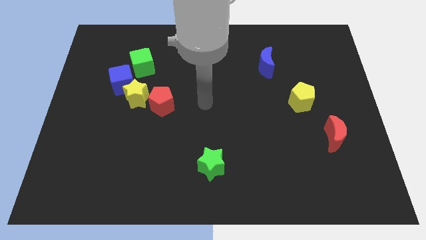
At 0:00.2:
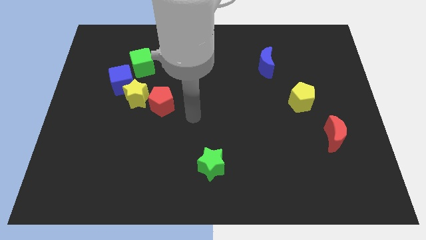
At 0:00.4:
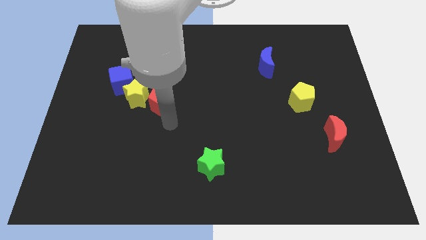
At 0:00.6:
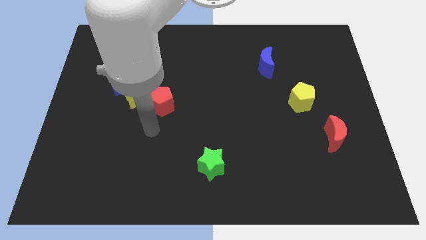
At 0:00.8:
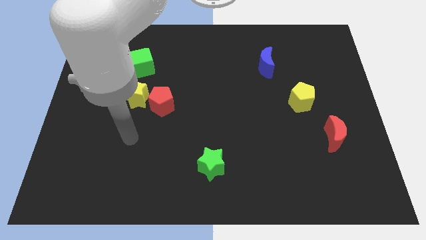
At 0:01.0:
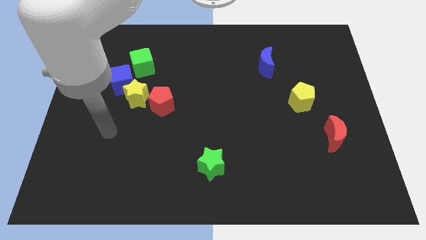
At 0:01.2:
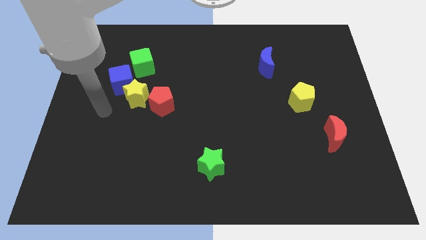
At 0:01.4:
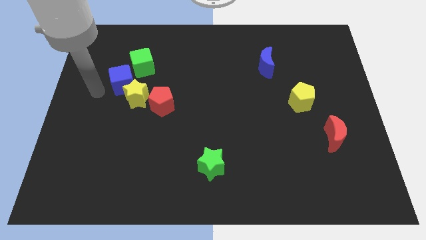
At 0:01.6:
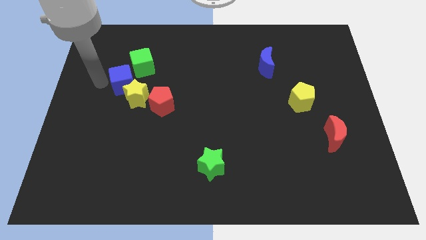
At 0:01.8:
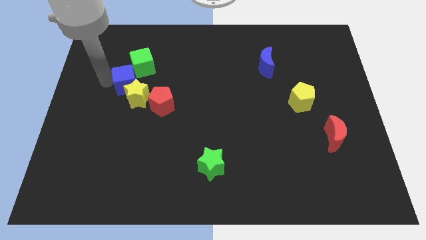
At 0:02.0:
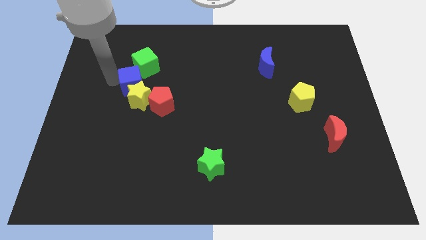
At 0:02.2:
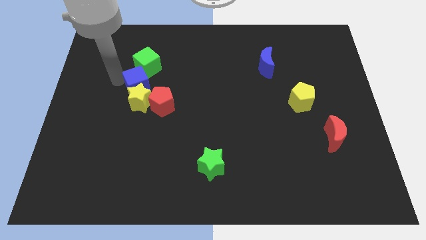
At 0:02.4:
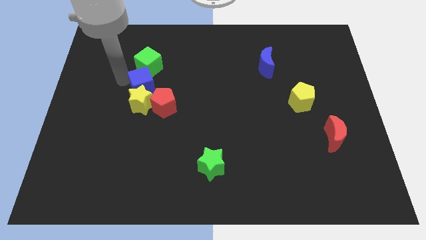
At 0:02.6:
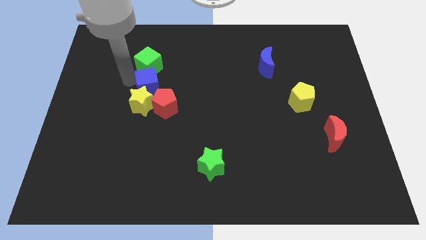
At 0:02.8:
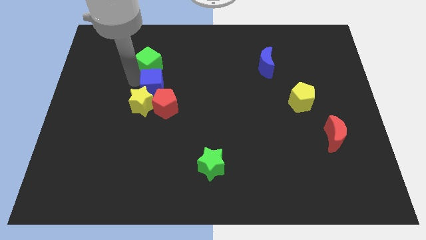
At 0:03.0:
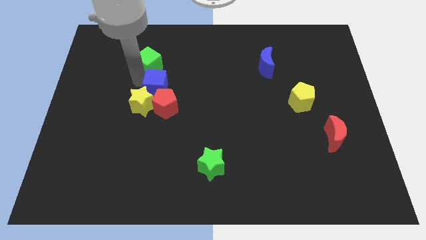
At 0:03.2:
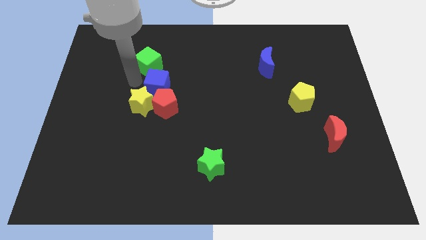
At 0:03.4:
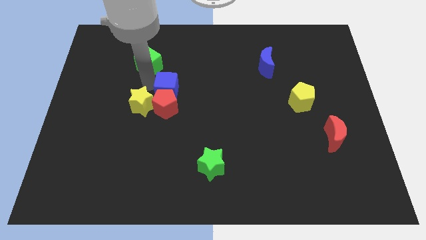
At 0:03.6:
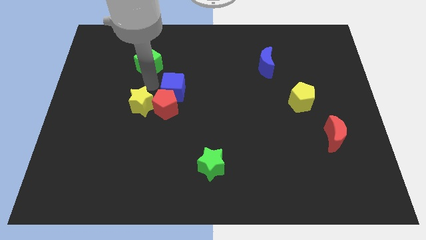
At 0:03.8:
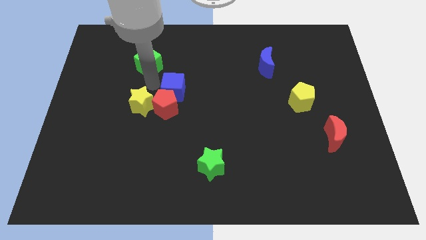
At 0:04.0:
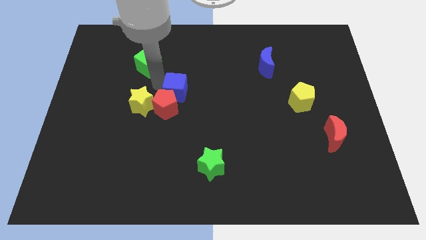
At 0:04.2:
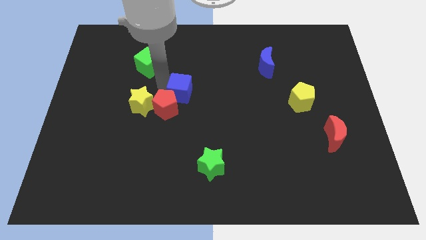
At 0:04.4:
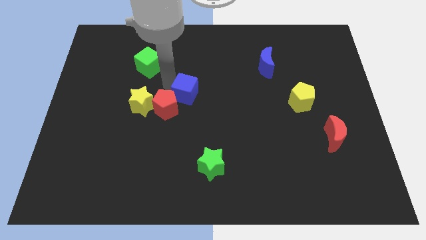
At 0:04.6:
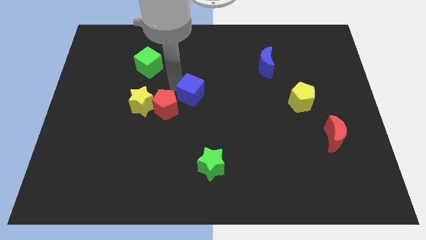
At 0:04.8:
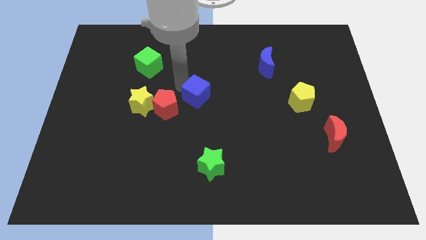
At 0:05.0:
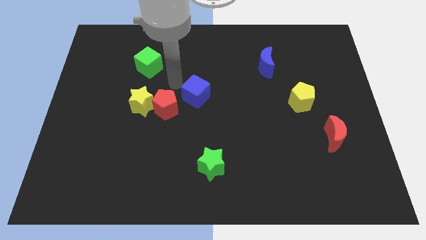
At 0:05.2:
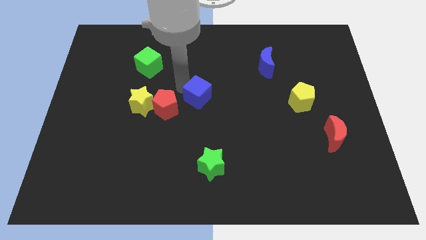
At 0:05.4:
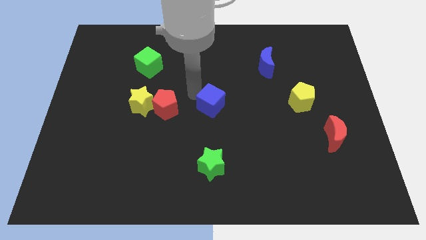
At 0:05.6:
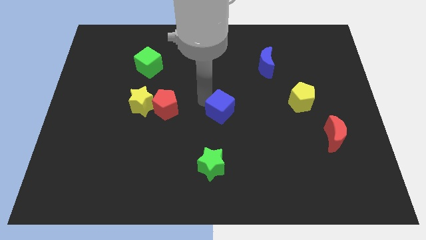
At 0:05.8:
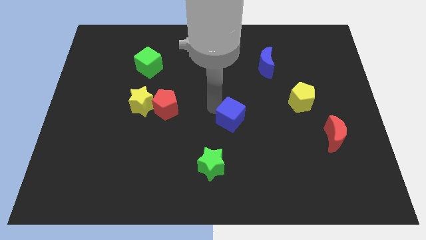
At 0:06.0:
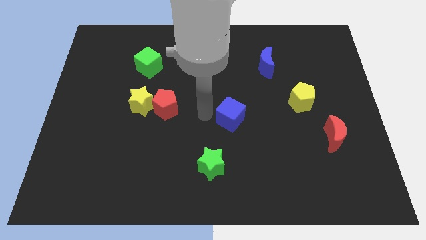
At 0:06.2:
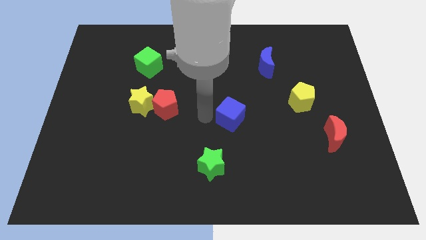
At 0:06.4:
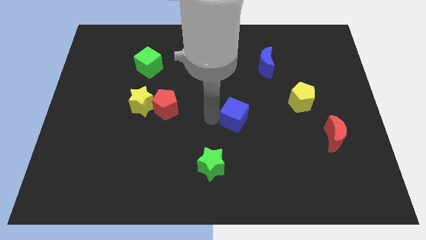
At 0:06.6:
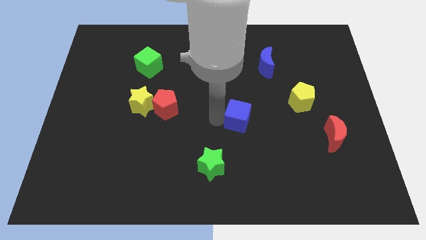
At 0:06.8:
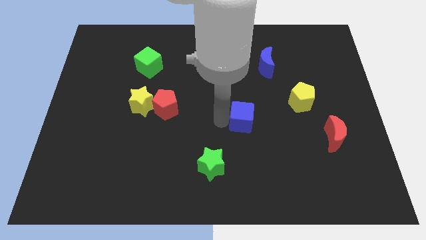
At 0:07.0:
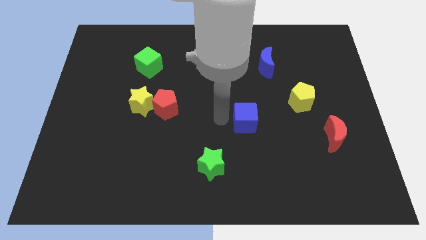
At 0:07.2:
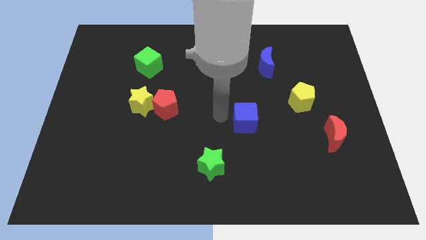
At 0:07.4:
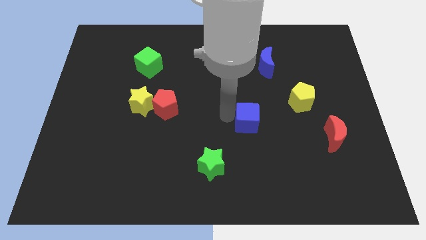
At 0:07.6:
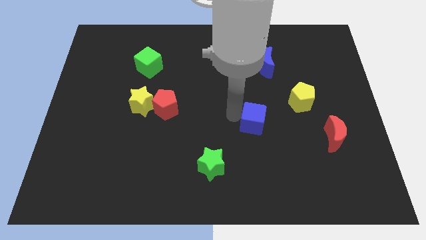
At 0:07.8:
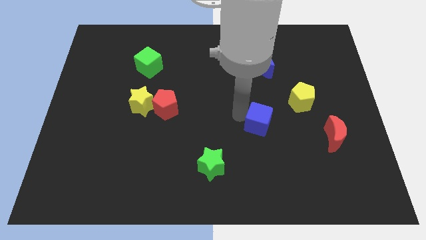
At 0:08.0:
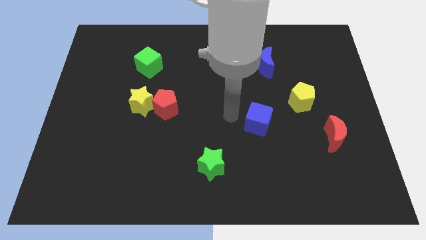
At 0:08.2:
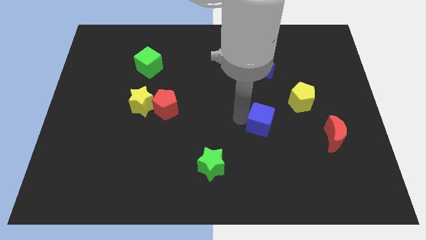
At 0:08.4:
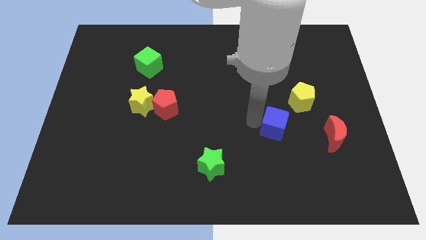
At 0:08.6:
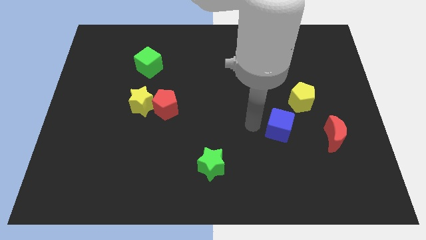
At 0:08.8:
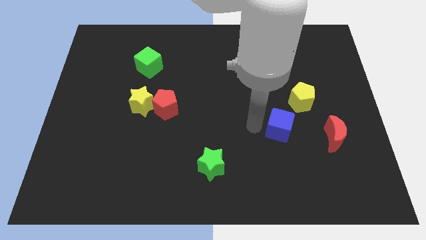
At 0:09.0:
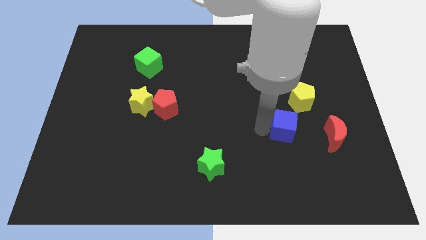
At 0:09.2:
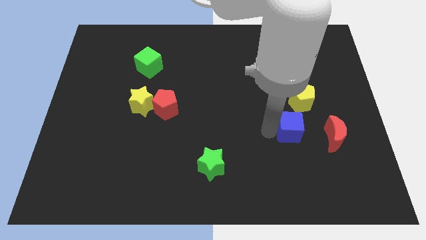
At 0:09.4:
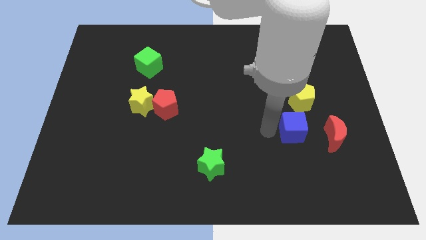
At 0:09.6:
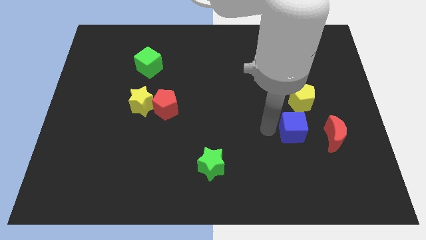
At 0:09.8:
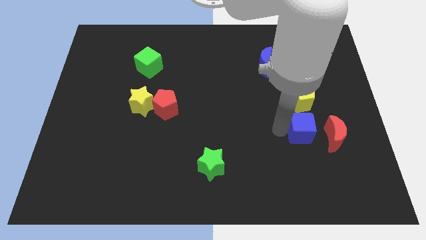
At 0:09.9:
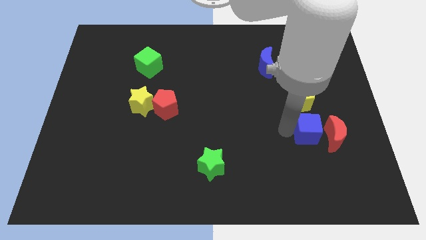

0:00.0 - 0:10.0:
slide the blue cube to the red moon

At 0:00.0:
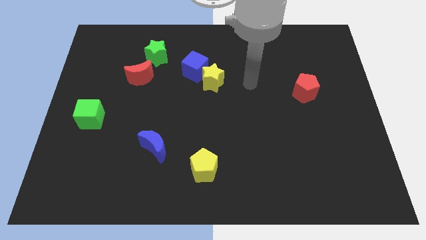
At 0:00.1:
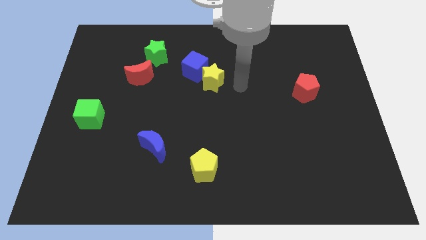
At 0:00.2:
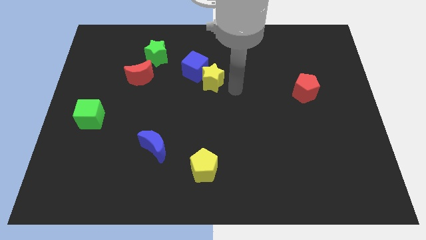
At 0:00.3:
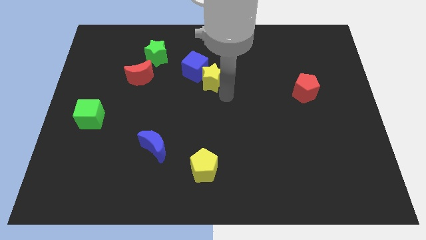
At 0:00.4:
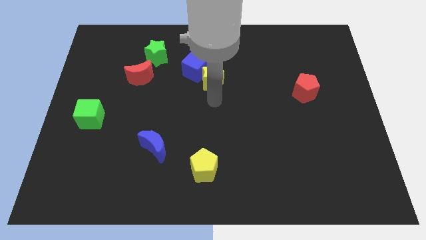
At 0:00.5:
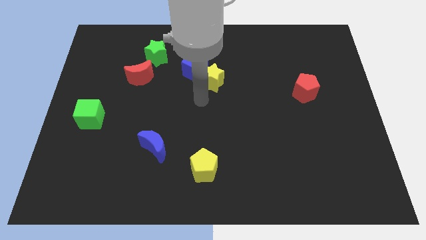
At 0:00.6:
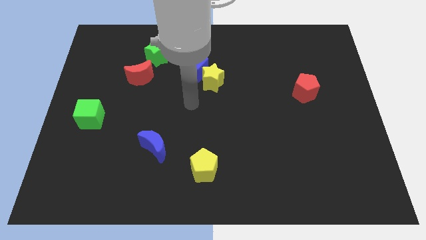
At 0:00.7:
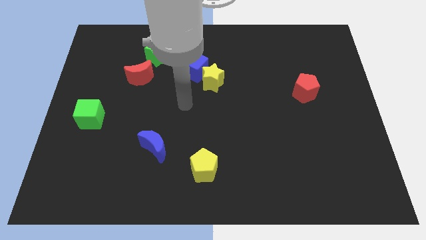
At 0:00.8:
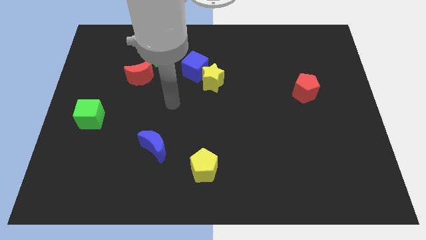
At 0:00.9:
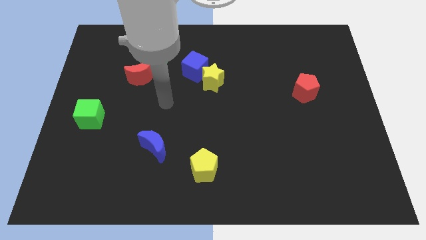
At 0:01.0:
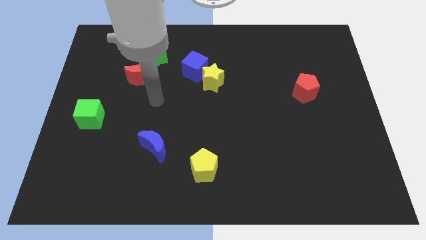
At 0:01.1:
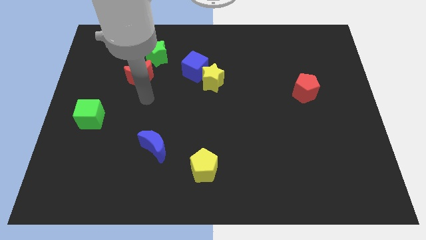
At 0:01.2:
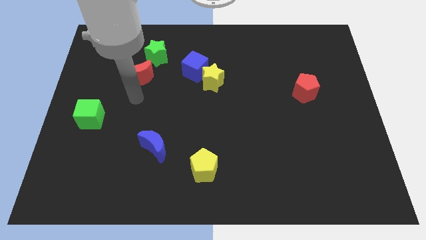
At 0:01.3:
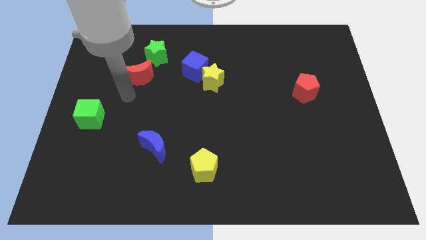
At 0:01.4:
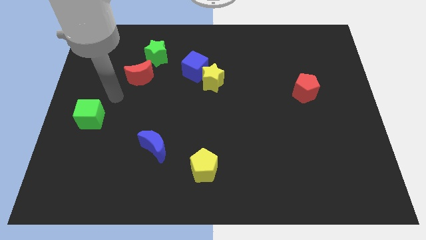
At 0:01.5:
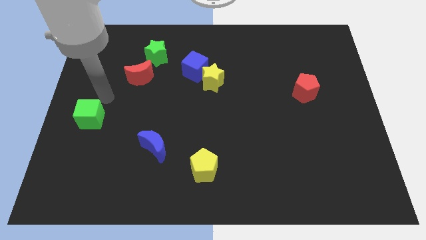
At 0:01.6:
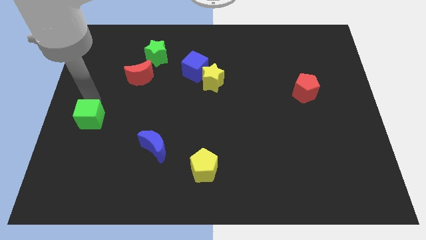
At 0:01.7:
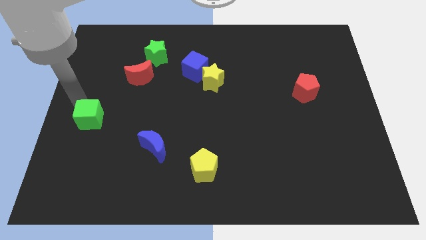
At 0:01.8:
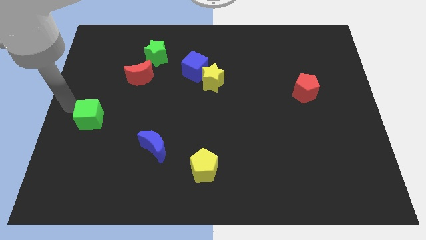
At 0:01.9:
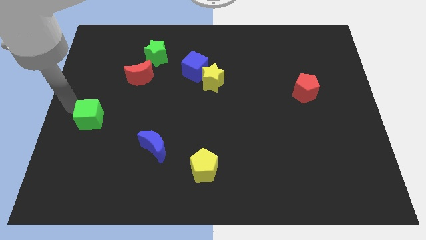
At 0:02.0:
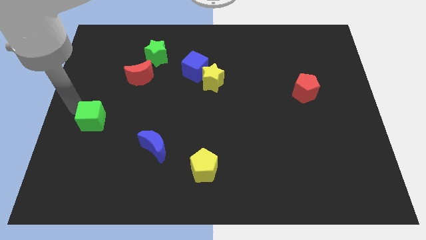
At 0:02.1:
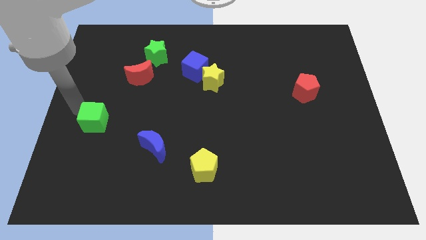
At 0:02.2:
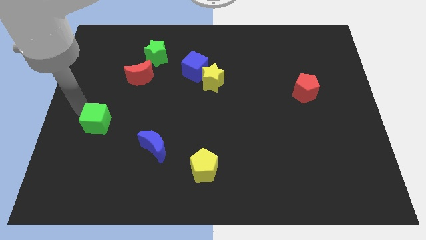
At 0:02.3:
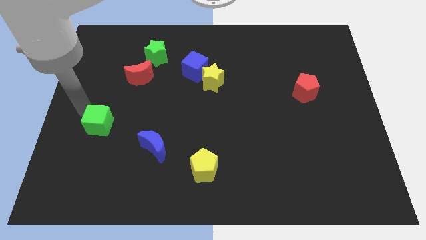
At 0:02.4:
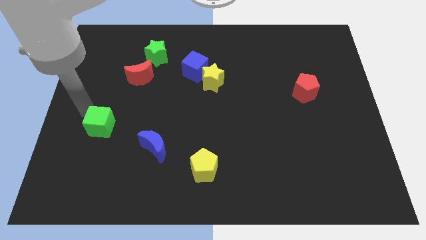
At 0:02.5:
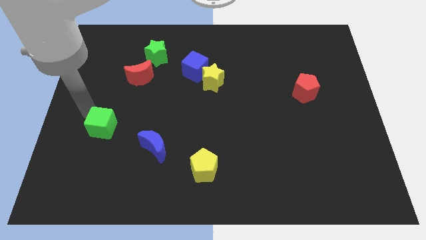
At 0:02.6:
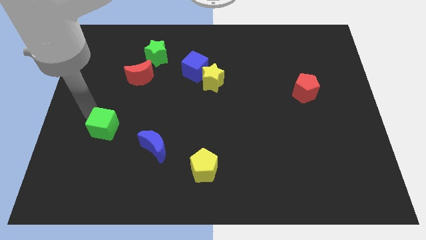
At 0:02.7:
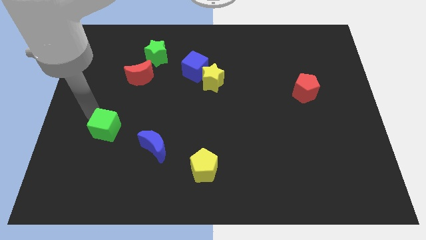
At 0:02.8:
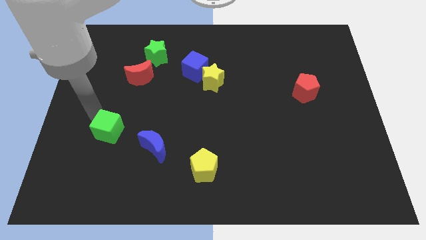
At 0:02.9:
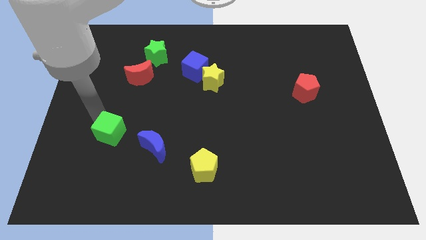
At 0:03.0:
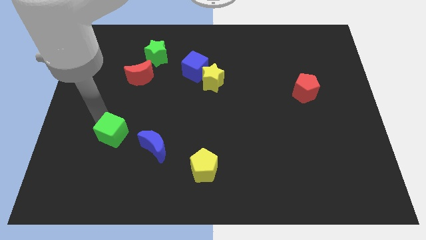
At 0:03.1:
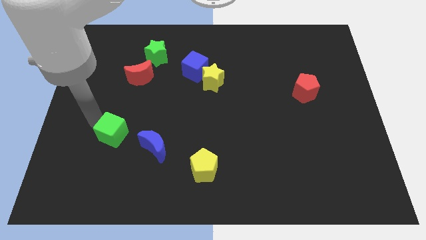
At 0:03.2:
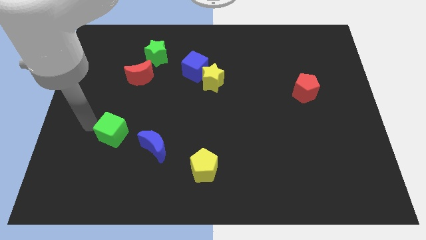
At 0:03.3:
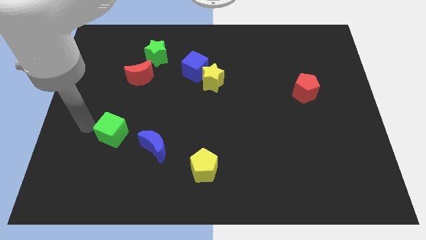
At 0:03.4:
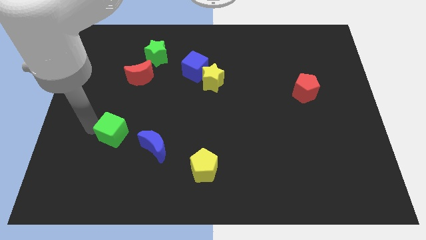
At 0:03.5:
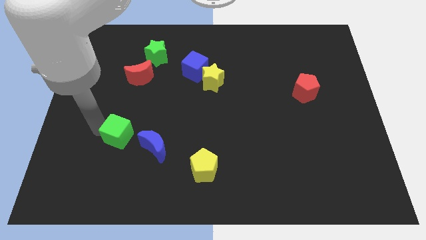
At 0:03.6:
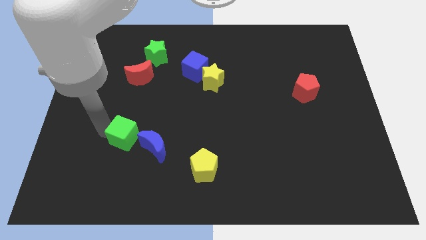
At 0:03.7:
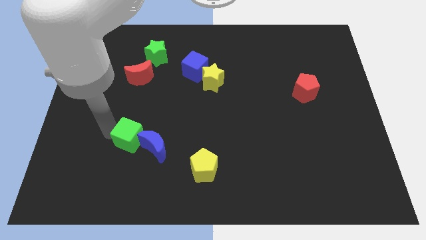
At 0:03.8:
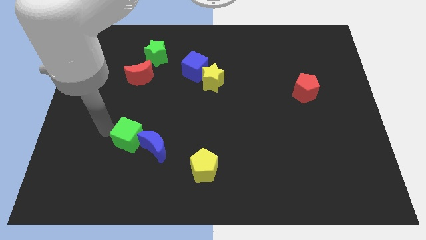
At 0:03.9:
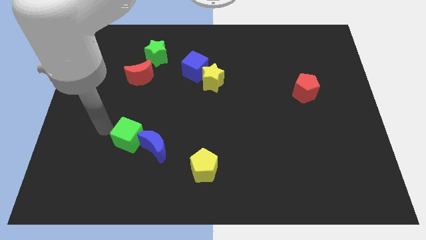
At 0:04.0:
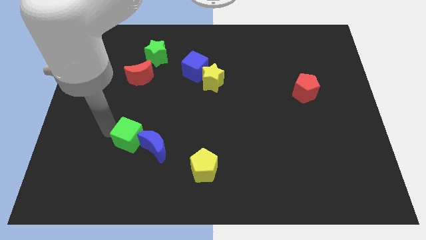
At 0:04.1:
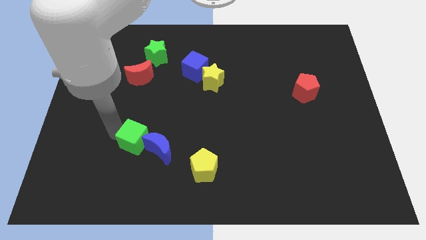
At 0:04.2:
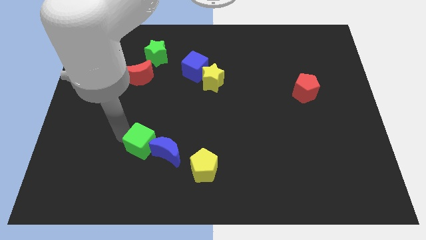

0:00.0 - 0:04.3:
move the green cube to the blue moon
